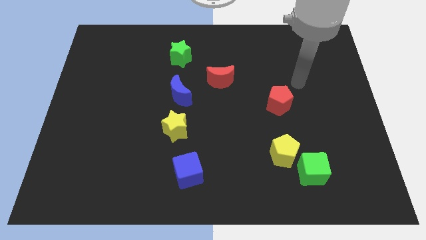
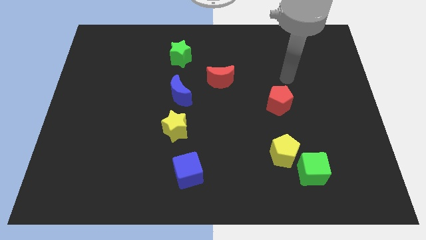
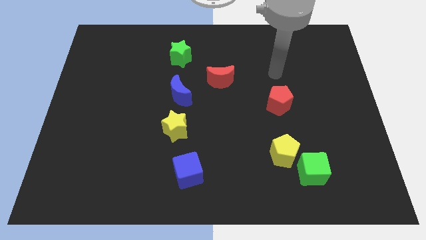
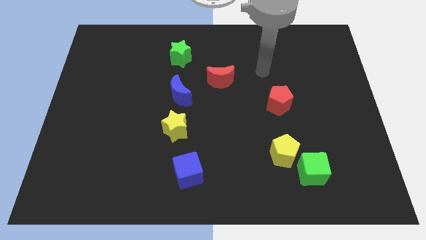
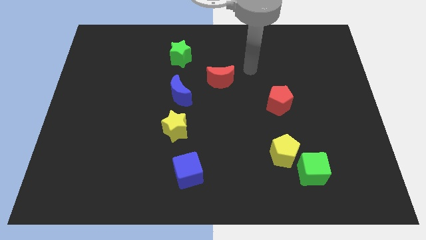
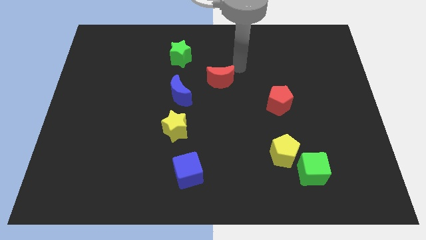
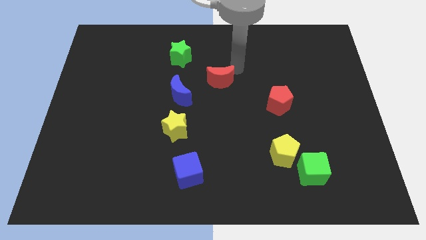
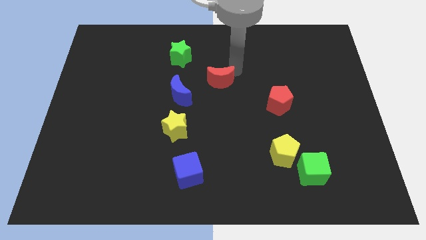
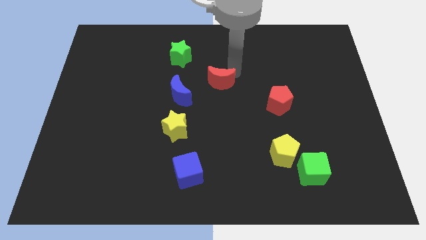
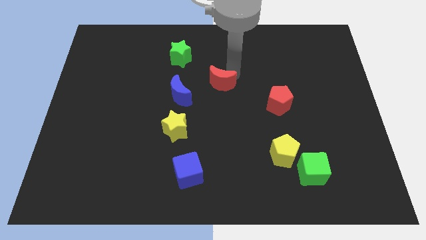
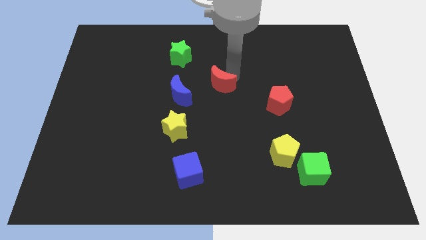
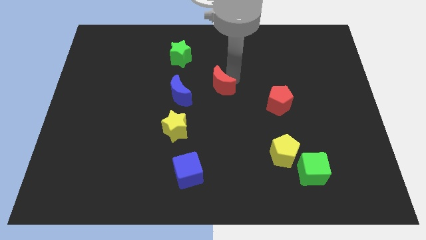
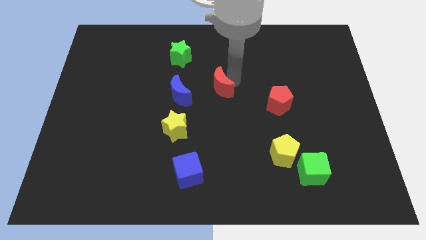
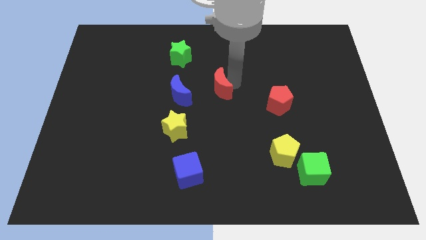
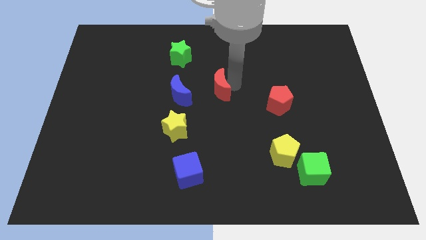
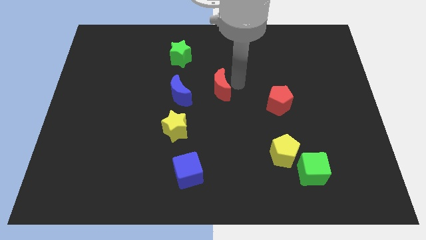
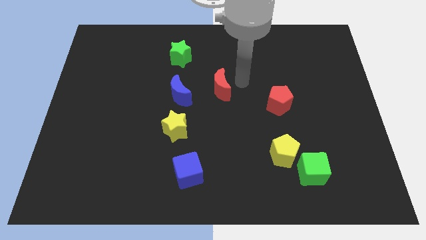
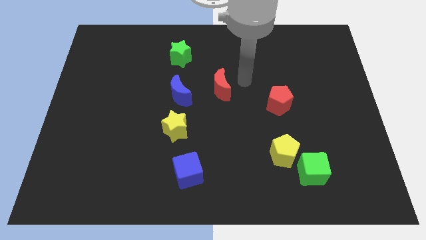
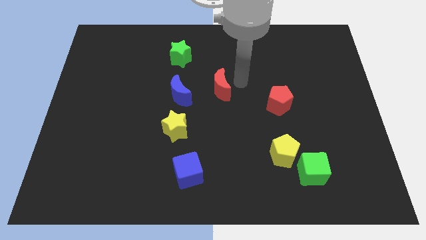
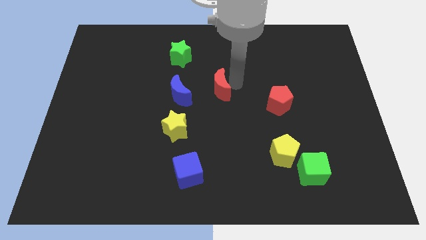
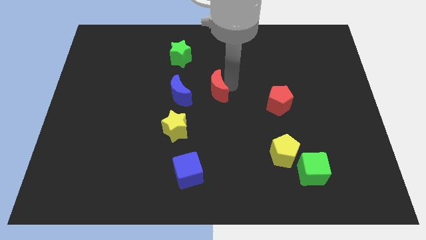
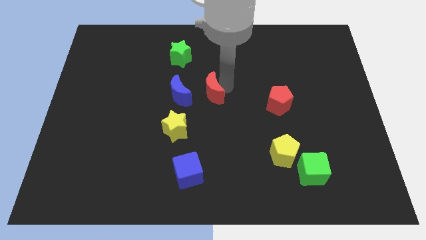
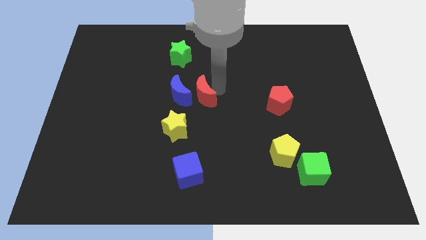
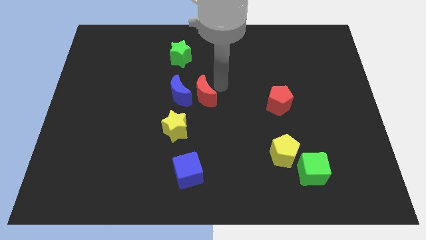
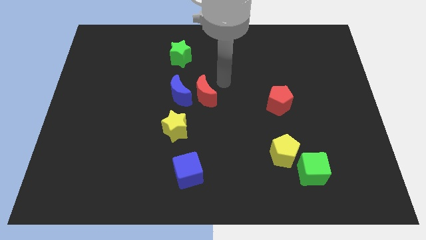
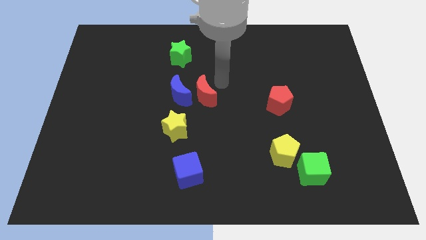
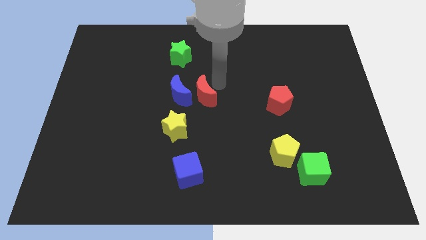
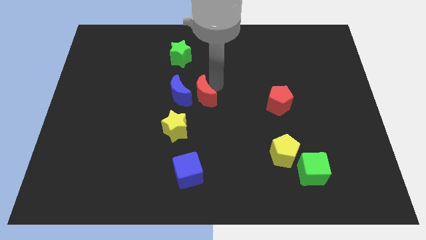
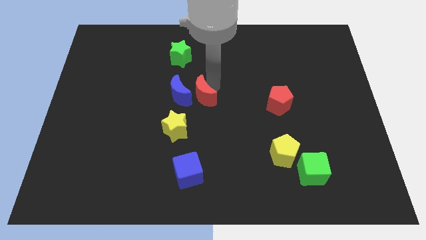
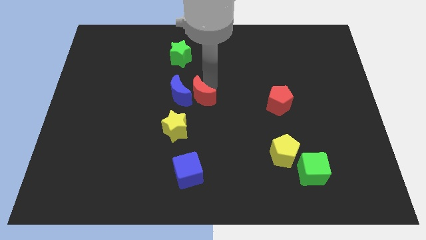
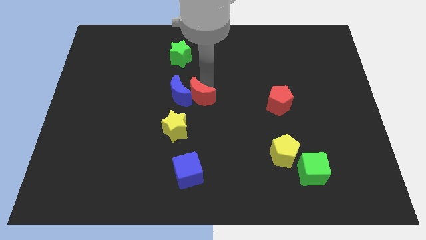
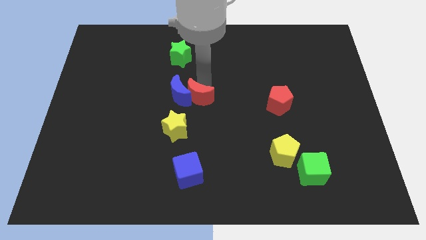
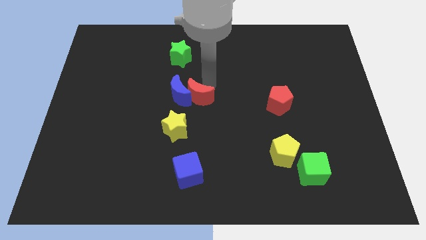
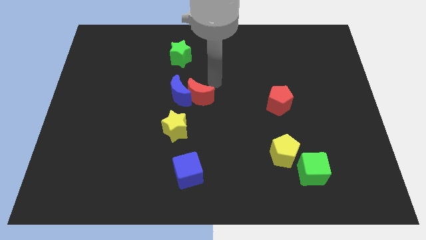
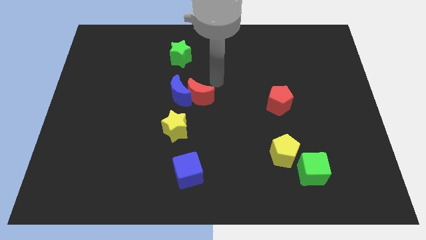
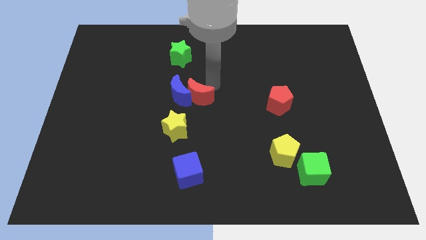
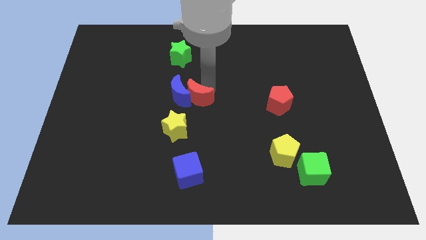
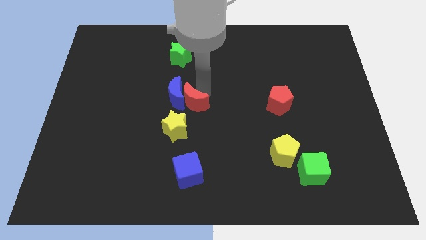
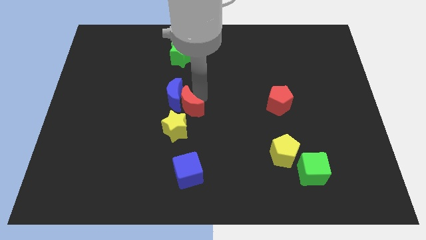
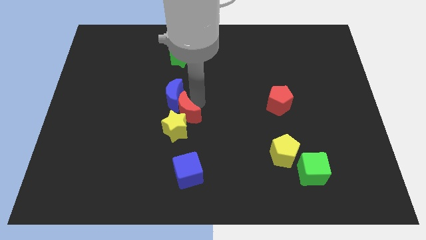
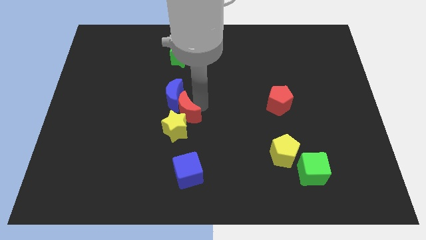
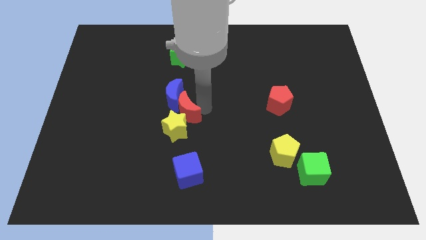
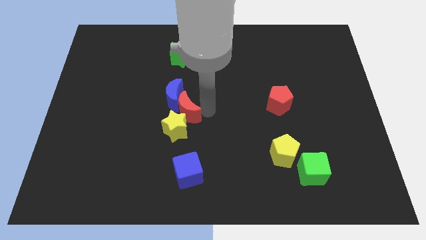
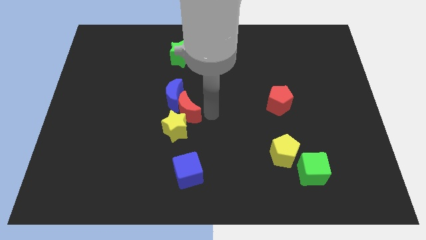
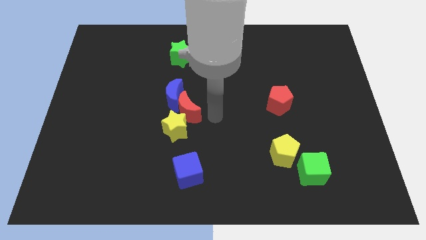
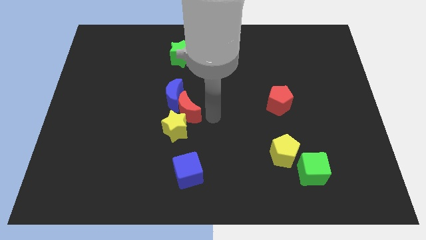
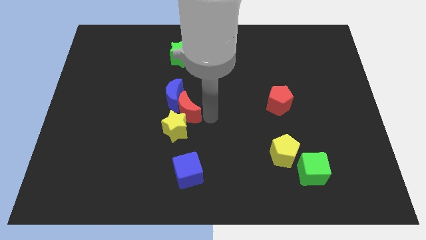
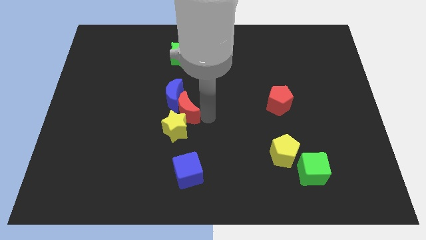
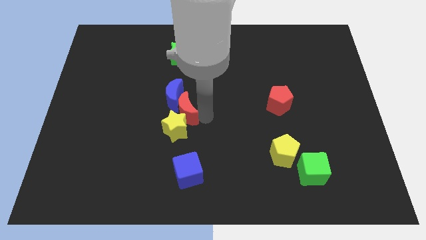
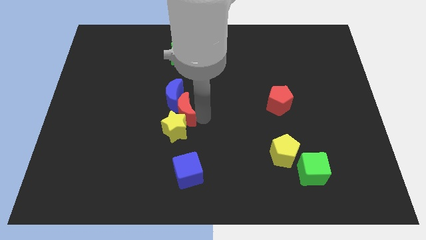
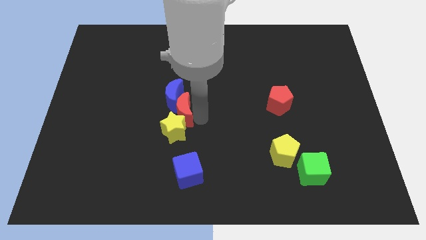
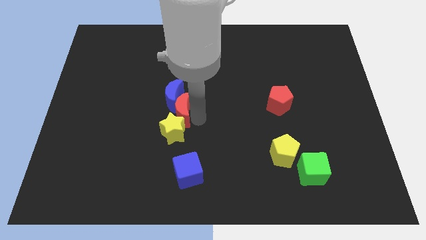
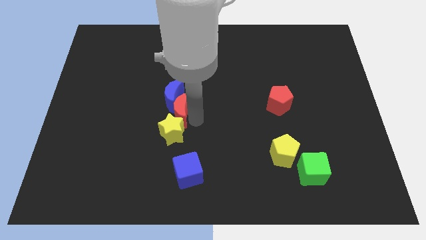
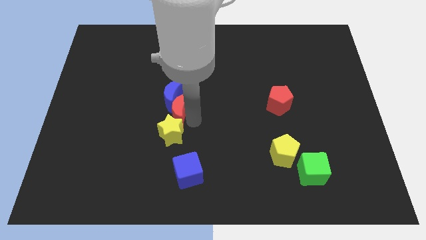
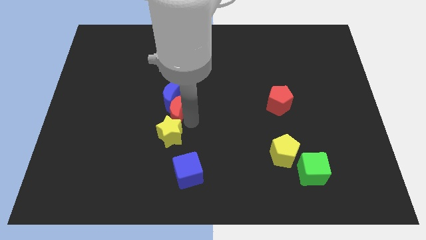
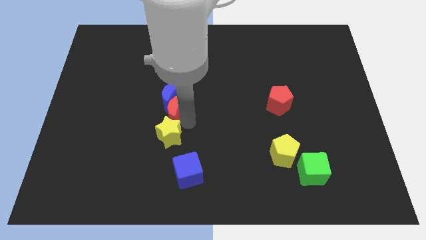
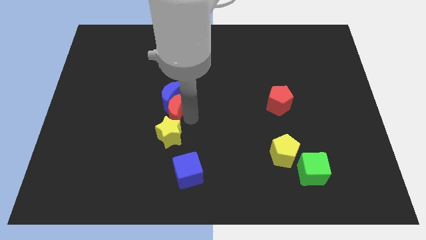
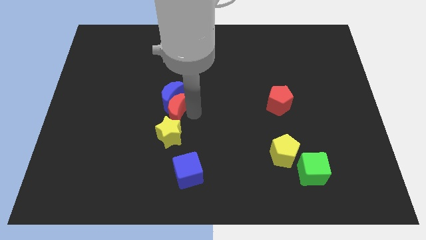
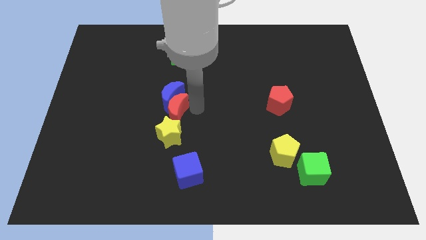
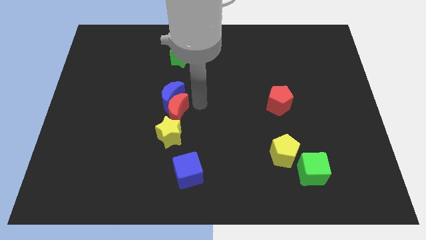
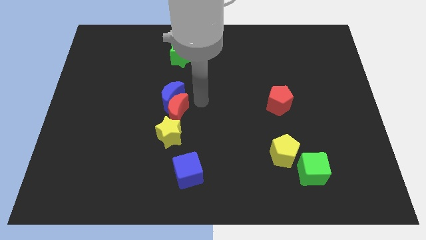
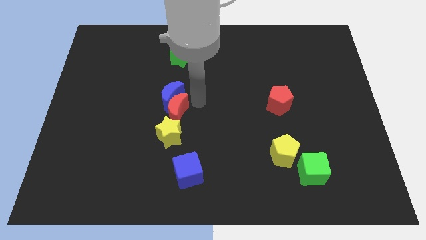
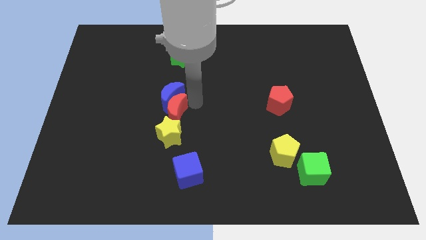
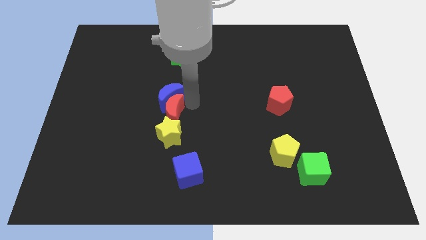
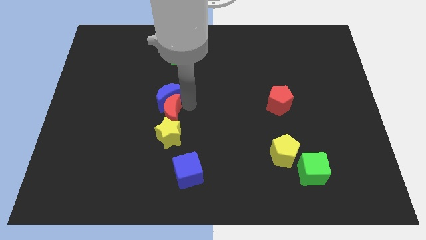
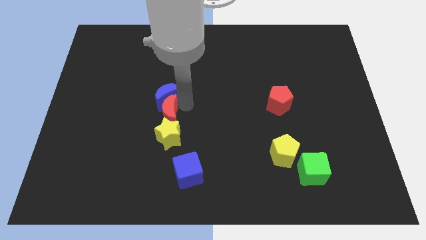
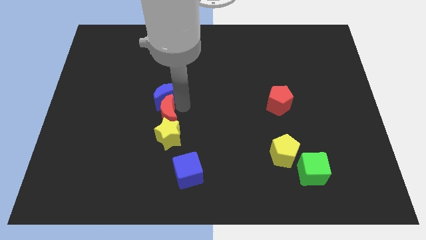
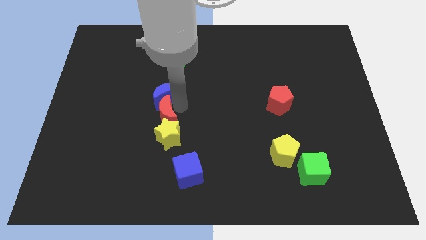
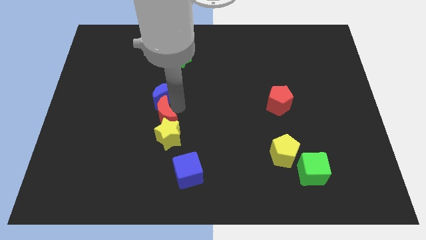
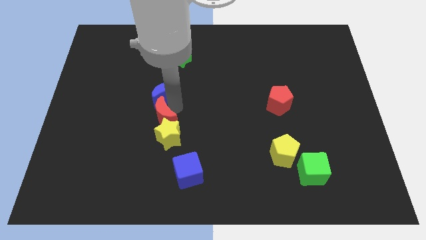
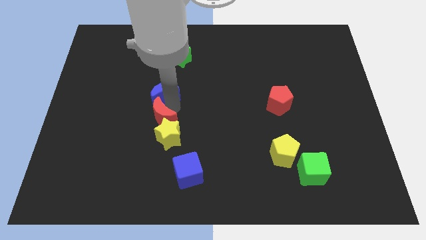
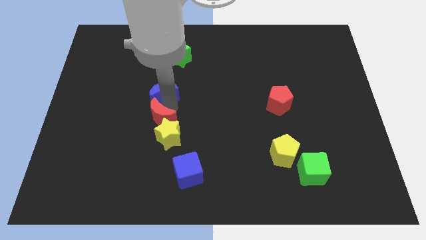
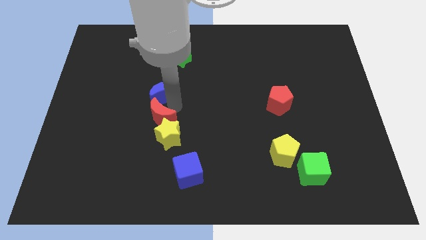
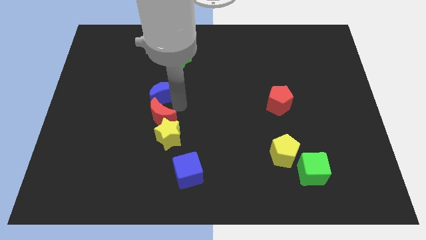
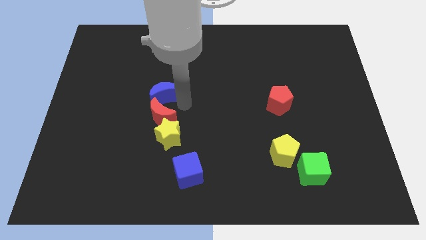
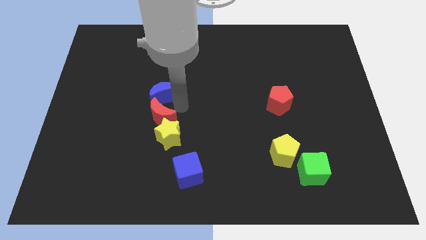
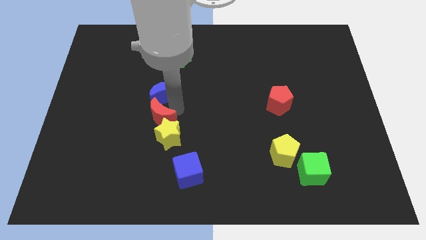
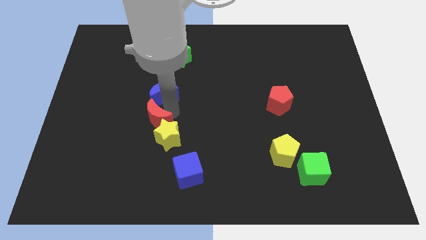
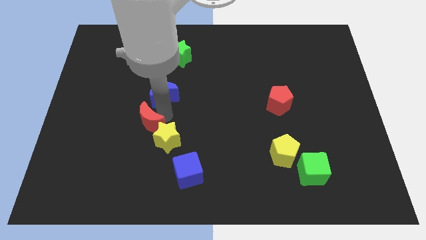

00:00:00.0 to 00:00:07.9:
move the red moon downwards and to the left diagonally

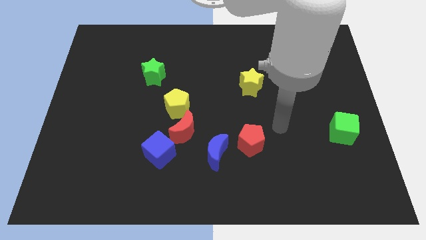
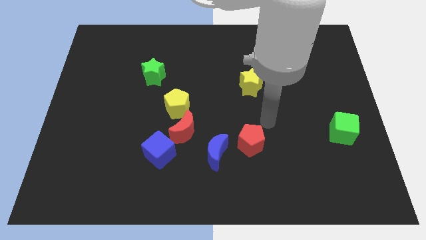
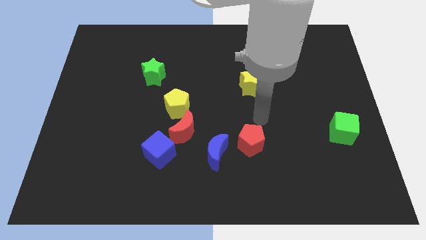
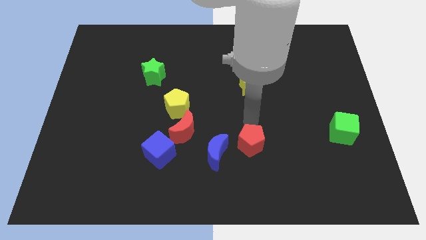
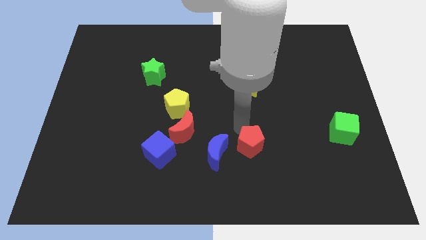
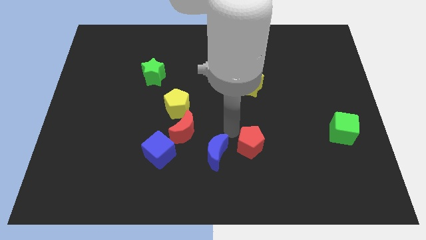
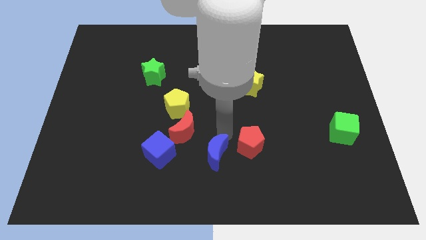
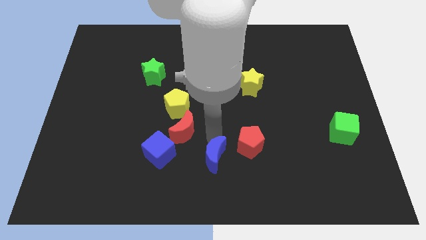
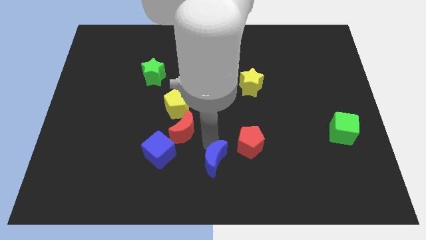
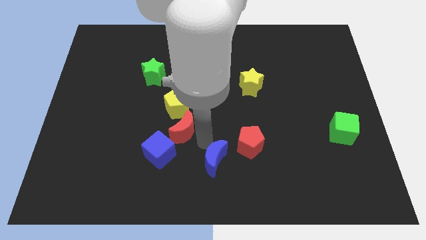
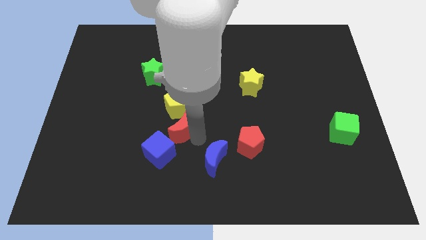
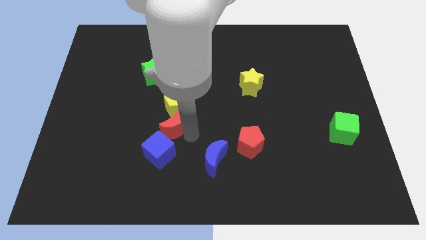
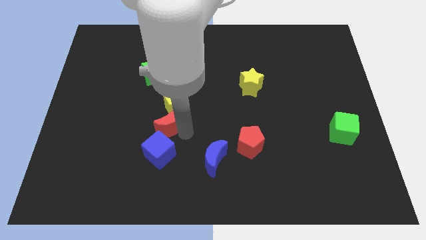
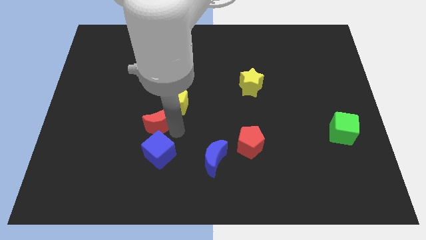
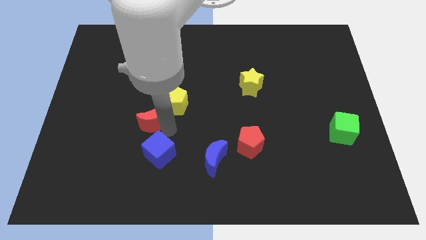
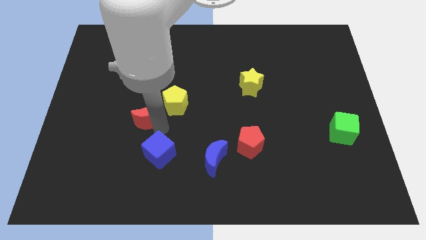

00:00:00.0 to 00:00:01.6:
slightly move the red moon up and left
